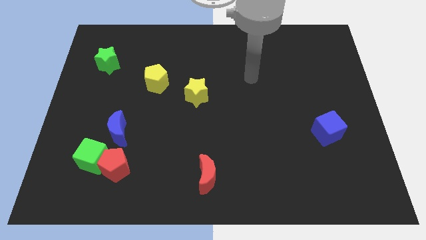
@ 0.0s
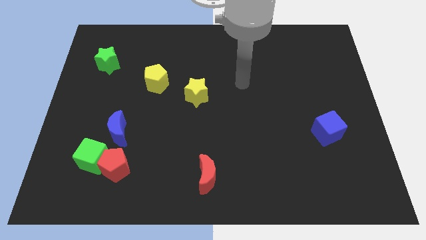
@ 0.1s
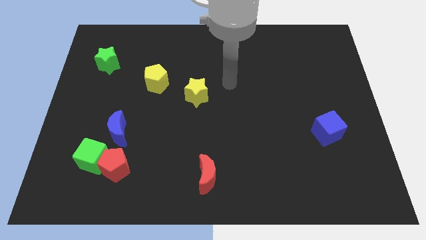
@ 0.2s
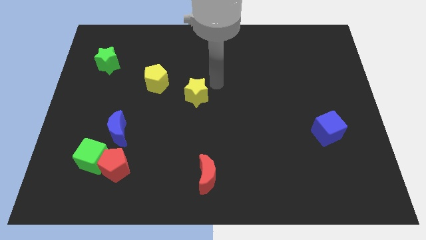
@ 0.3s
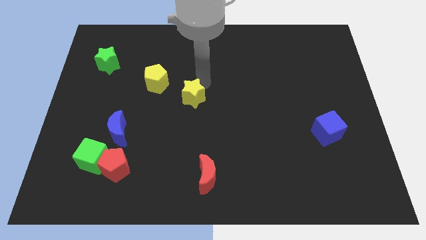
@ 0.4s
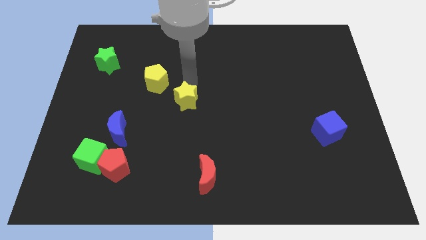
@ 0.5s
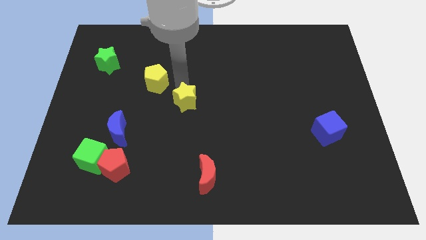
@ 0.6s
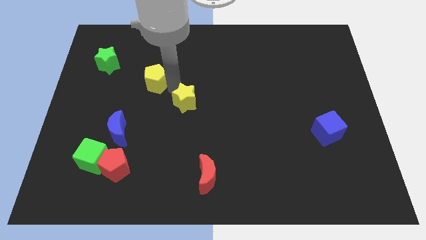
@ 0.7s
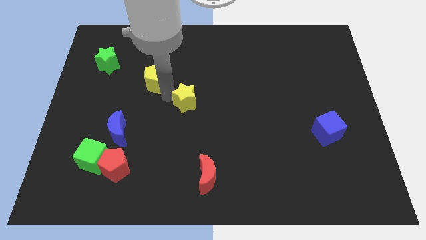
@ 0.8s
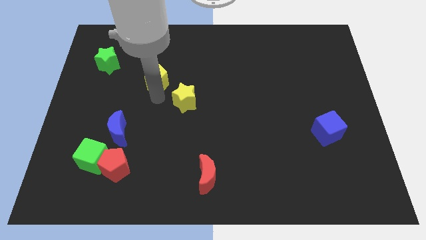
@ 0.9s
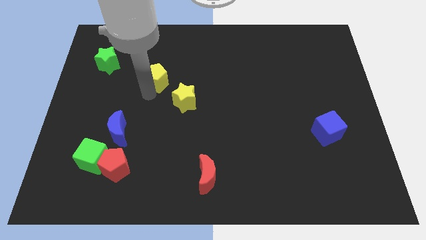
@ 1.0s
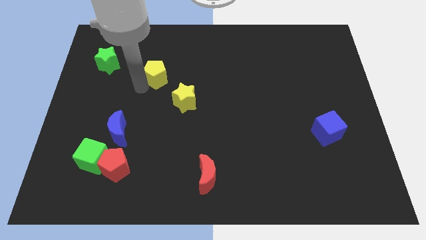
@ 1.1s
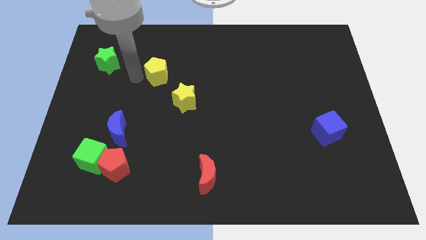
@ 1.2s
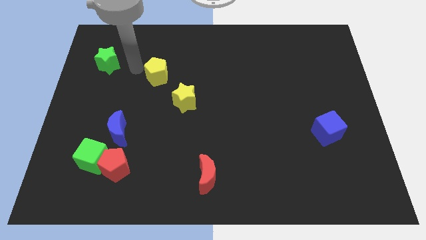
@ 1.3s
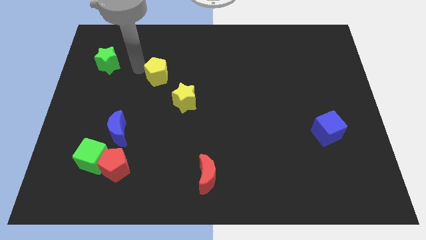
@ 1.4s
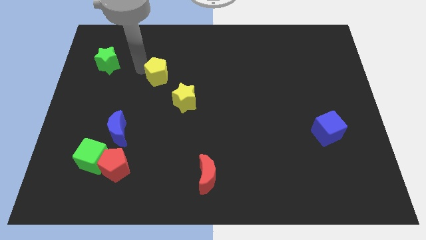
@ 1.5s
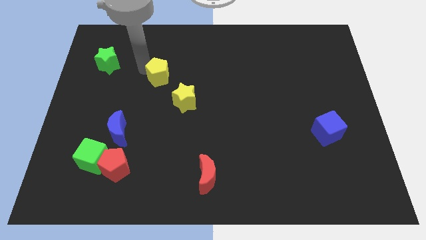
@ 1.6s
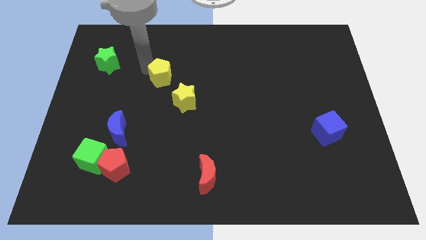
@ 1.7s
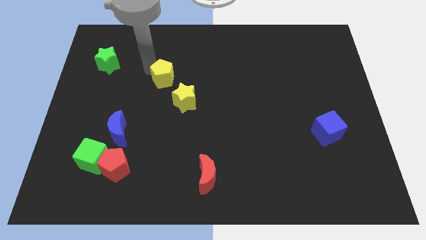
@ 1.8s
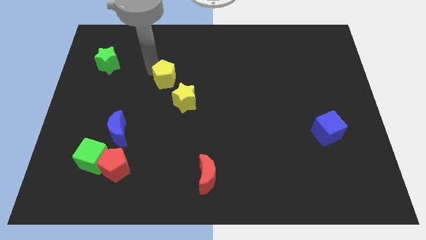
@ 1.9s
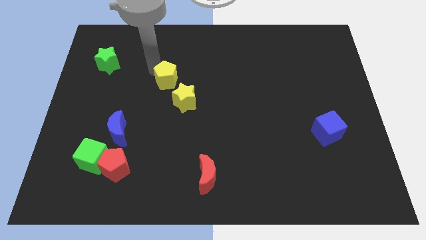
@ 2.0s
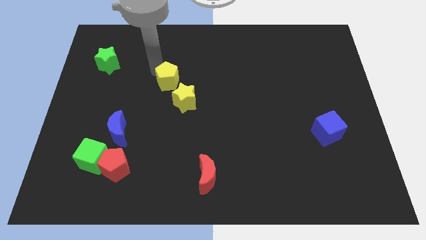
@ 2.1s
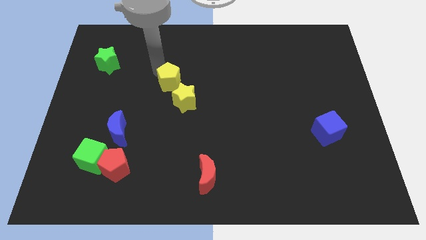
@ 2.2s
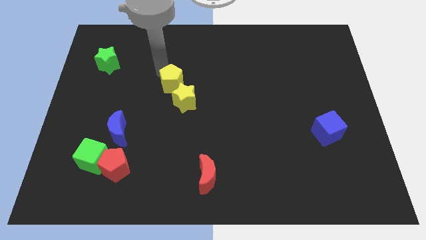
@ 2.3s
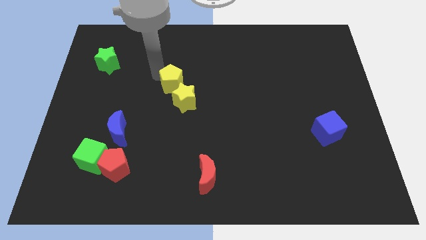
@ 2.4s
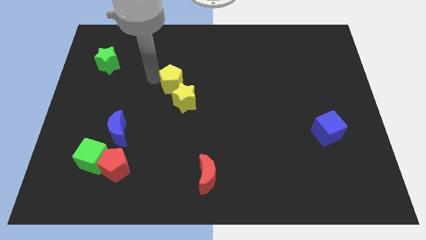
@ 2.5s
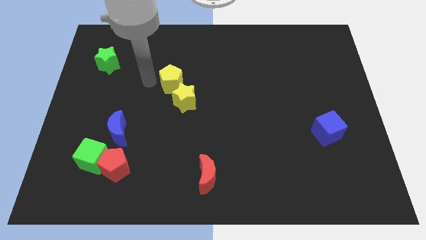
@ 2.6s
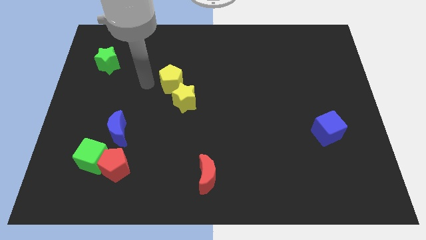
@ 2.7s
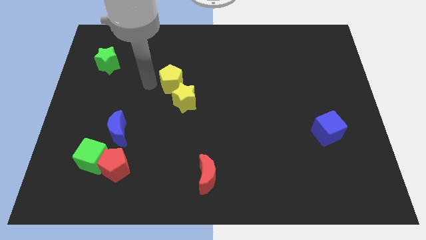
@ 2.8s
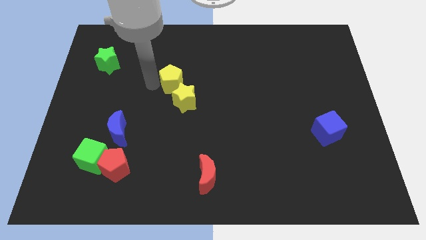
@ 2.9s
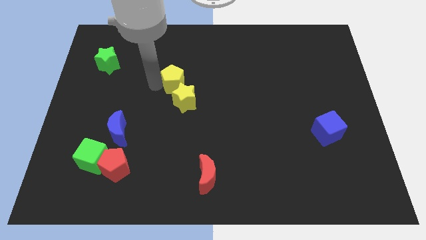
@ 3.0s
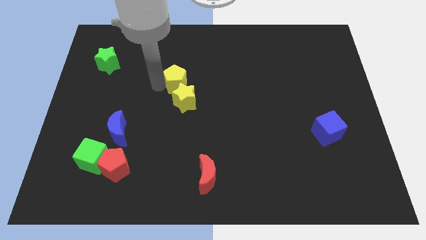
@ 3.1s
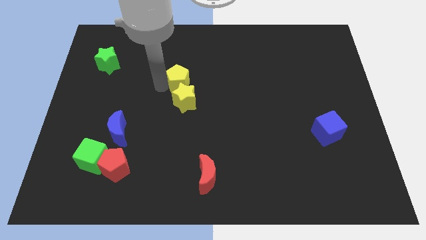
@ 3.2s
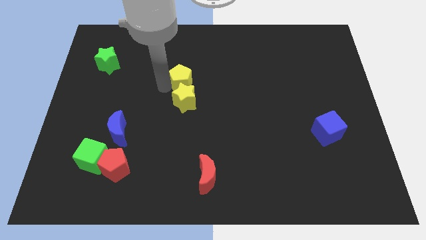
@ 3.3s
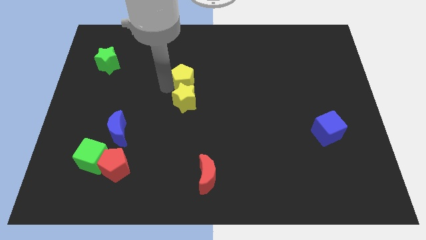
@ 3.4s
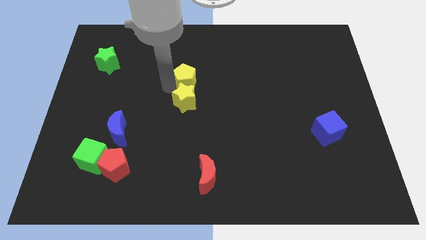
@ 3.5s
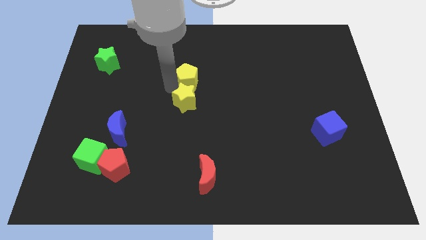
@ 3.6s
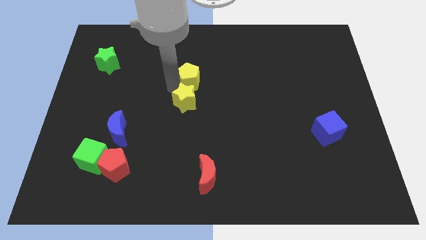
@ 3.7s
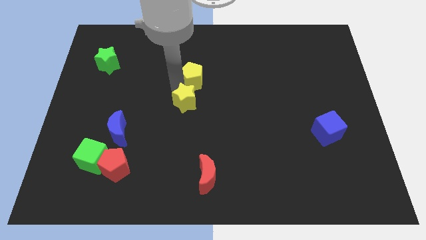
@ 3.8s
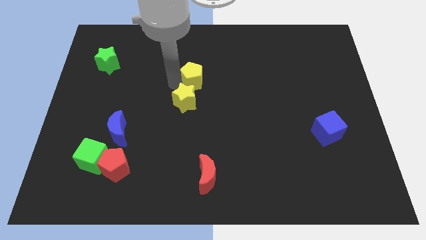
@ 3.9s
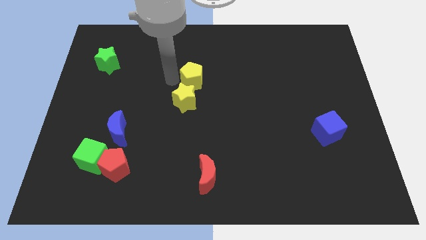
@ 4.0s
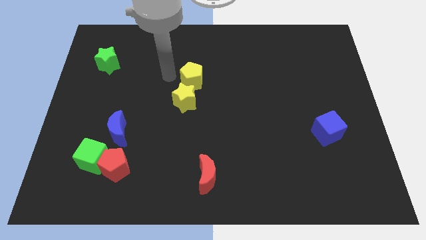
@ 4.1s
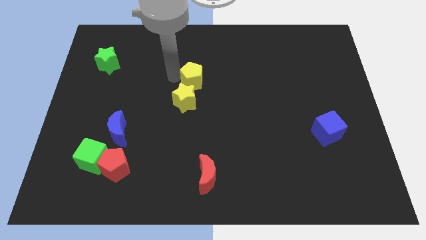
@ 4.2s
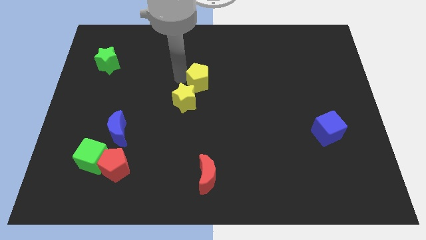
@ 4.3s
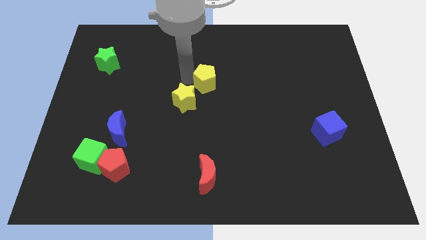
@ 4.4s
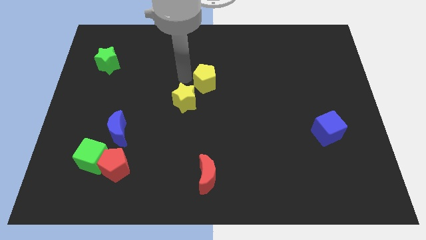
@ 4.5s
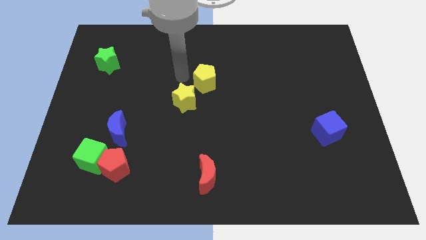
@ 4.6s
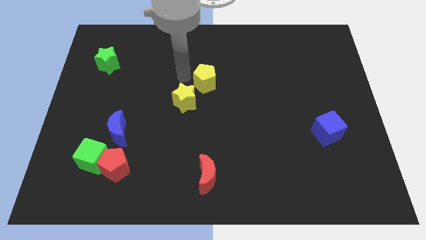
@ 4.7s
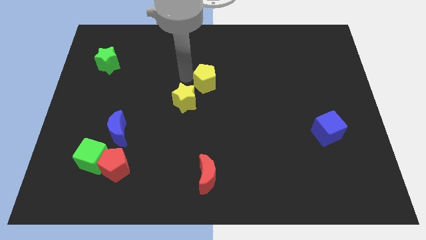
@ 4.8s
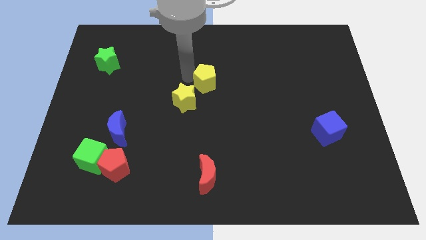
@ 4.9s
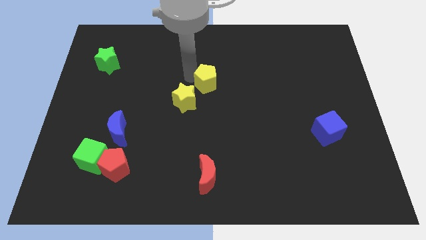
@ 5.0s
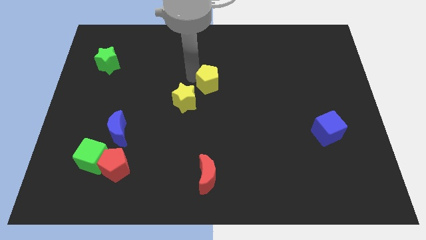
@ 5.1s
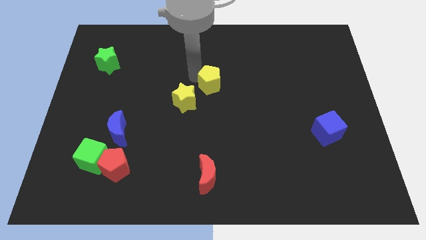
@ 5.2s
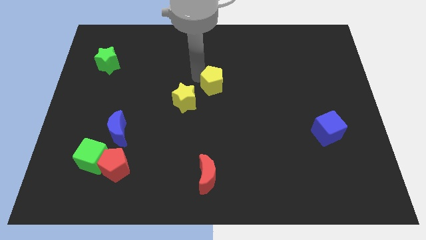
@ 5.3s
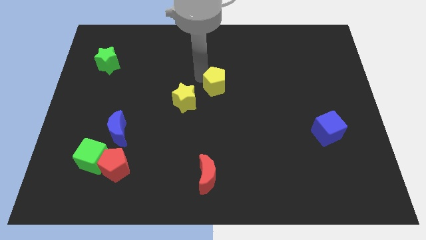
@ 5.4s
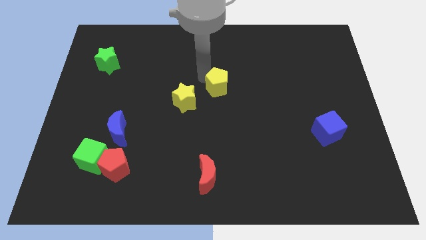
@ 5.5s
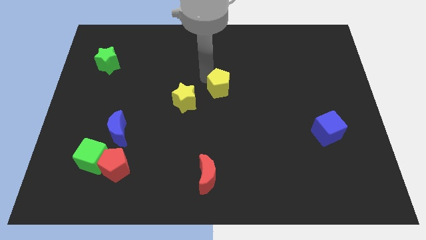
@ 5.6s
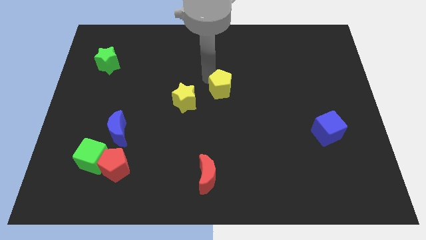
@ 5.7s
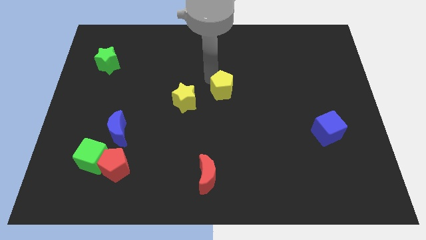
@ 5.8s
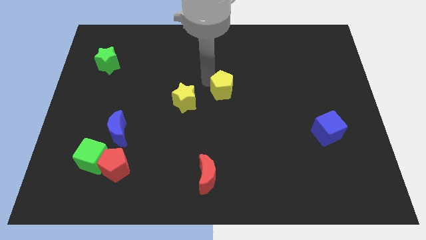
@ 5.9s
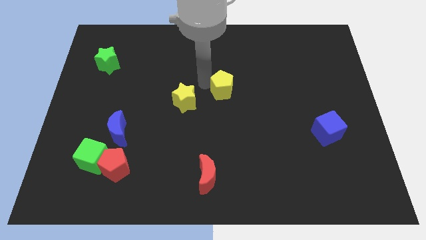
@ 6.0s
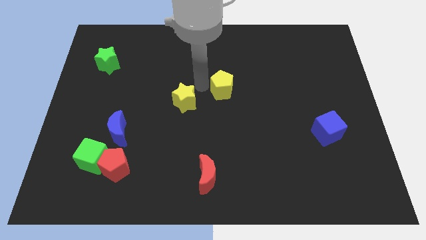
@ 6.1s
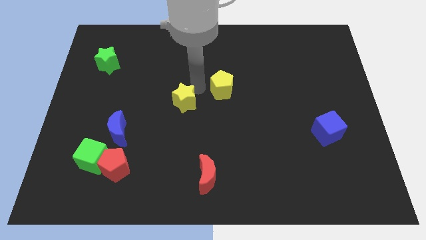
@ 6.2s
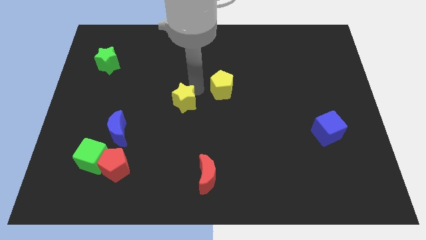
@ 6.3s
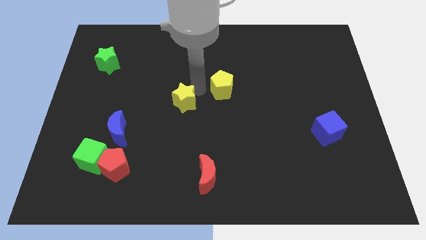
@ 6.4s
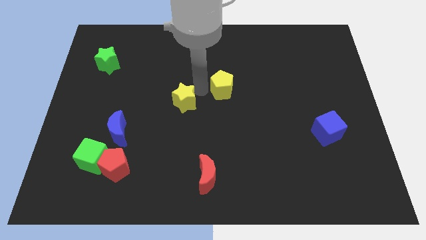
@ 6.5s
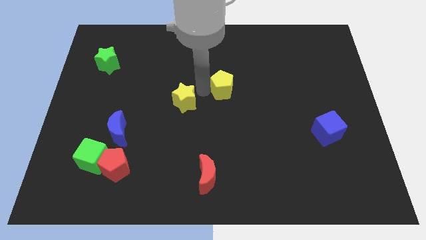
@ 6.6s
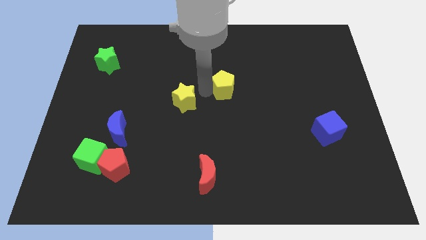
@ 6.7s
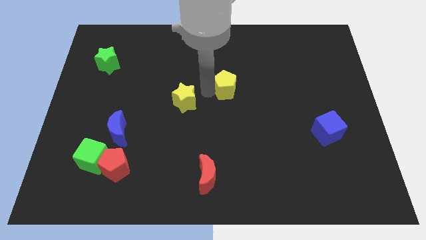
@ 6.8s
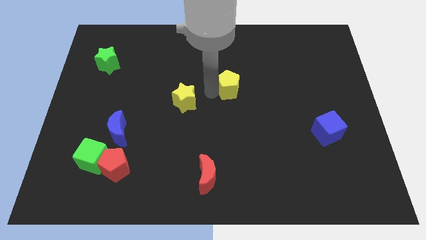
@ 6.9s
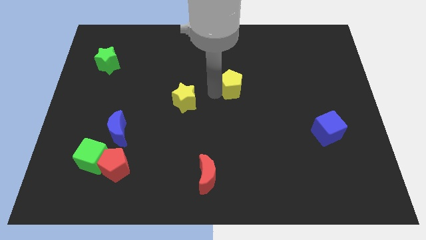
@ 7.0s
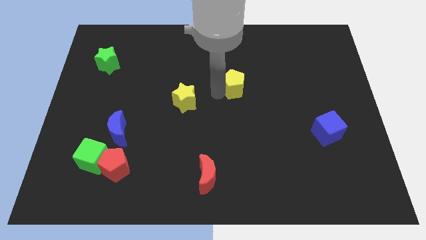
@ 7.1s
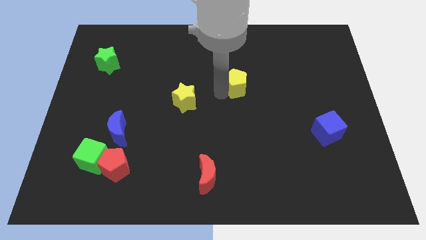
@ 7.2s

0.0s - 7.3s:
push the yellow pentagon to the right

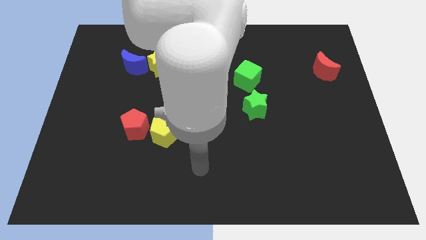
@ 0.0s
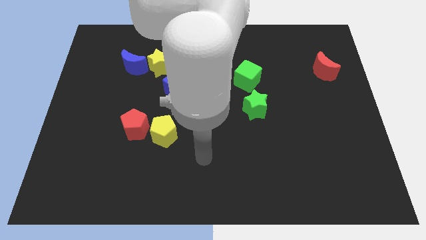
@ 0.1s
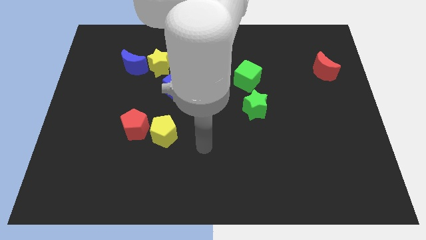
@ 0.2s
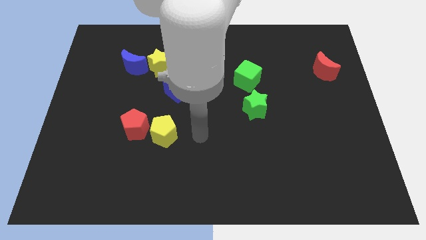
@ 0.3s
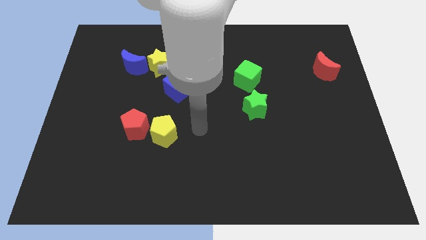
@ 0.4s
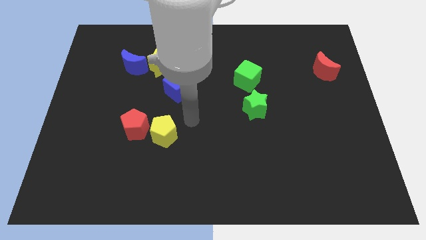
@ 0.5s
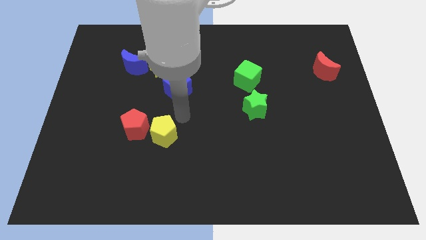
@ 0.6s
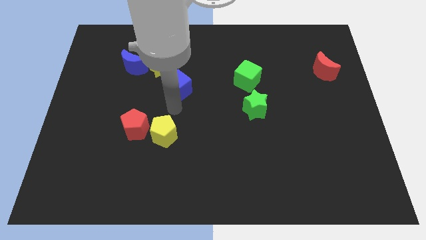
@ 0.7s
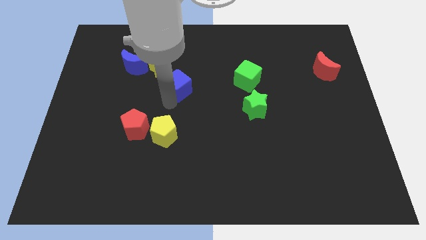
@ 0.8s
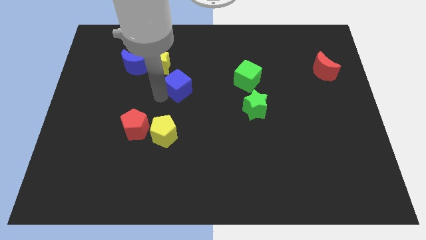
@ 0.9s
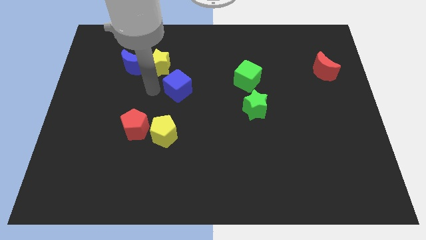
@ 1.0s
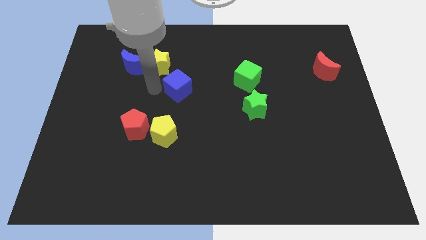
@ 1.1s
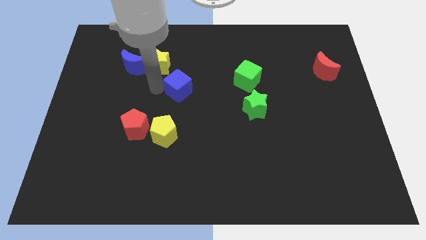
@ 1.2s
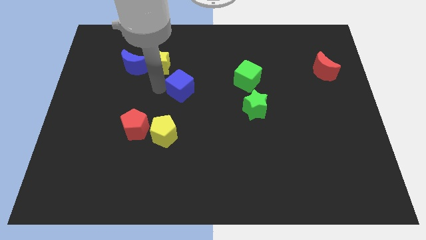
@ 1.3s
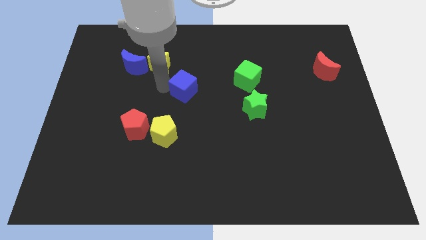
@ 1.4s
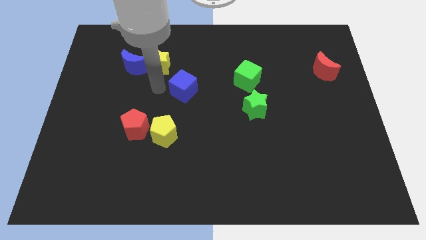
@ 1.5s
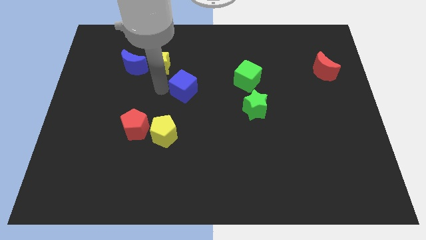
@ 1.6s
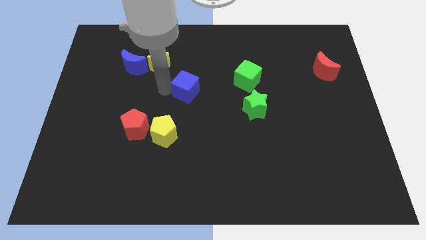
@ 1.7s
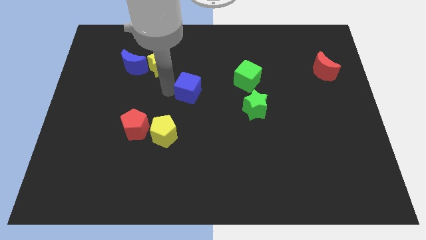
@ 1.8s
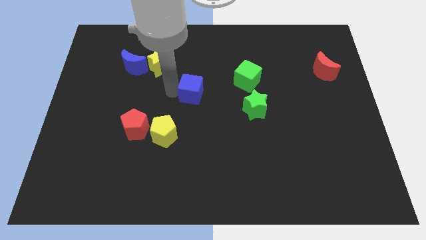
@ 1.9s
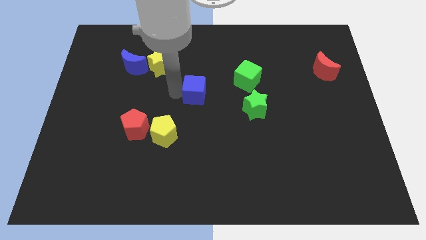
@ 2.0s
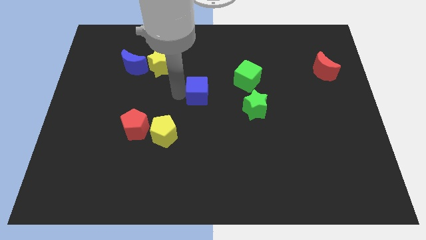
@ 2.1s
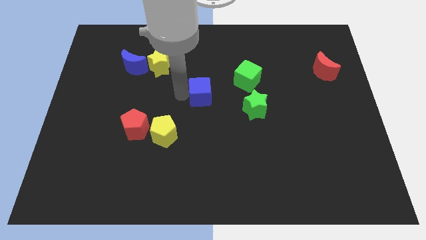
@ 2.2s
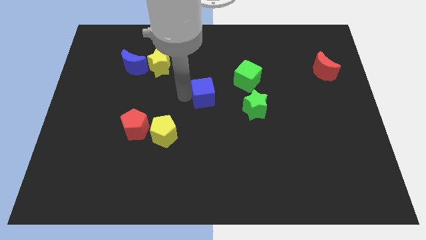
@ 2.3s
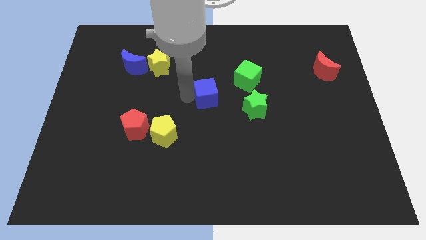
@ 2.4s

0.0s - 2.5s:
move the blue cube right a little
